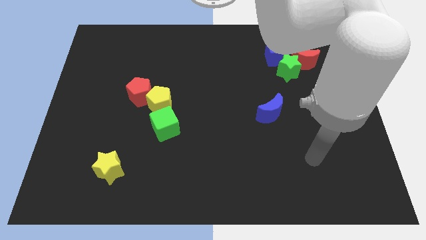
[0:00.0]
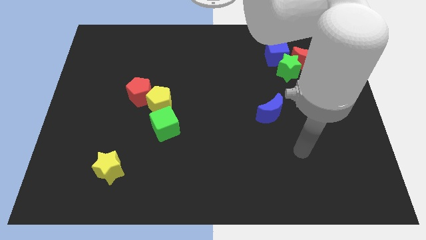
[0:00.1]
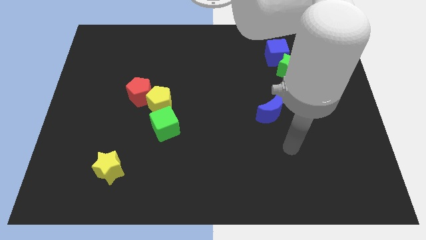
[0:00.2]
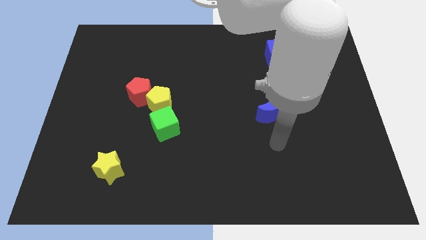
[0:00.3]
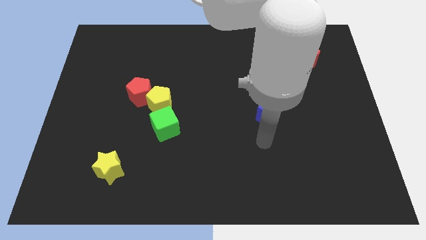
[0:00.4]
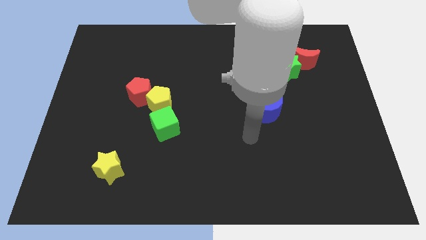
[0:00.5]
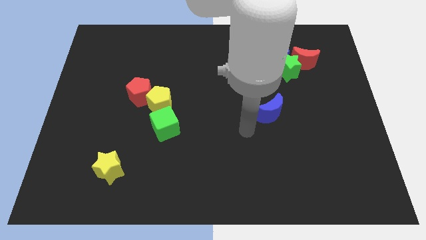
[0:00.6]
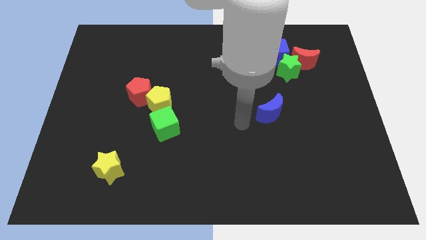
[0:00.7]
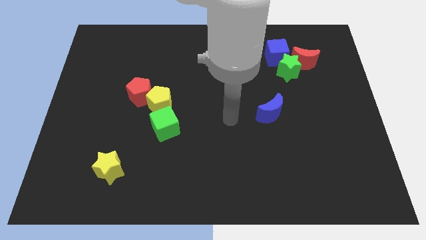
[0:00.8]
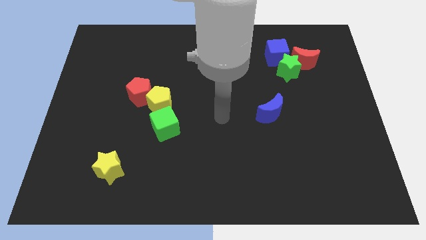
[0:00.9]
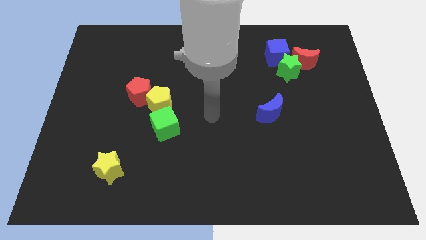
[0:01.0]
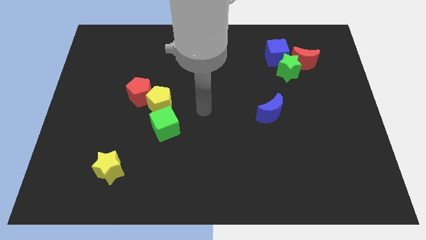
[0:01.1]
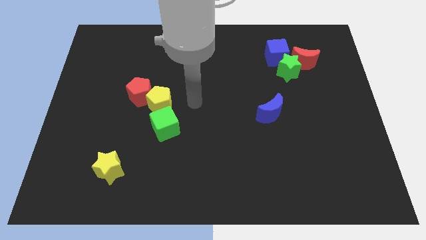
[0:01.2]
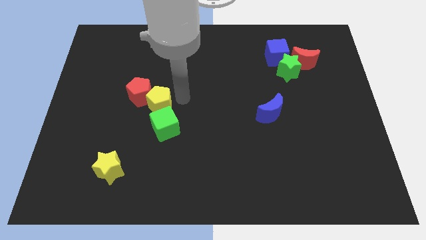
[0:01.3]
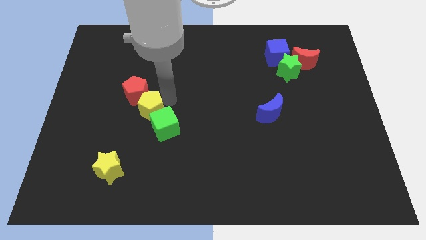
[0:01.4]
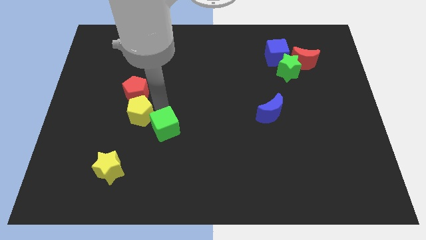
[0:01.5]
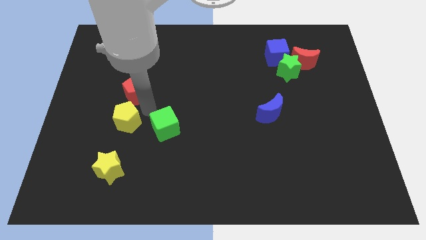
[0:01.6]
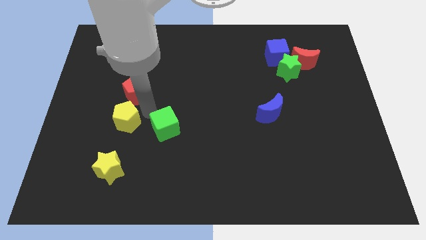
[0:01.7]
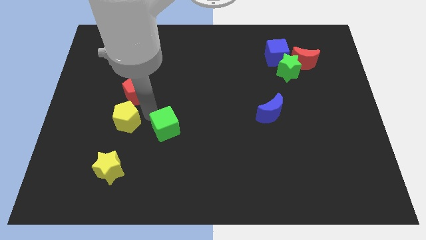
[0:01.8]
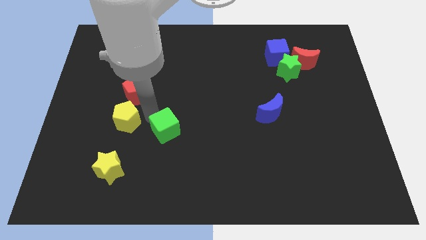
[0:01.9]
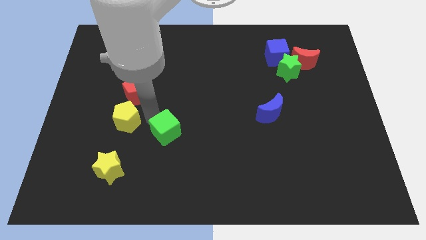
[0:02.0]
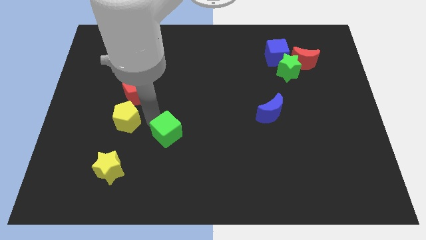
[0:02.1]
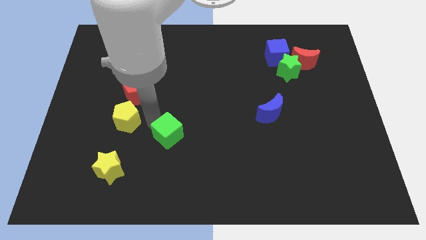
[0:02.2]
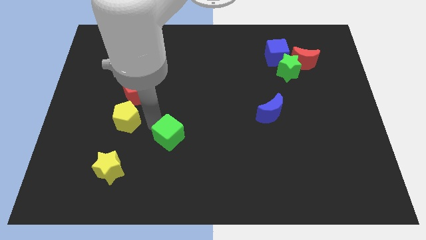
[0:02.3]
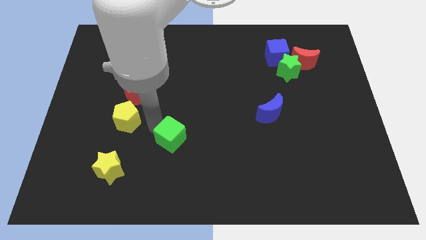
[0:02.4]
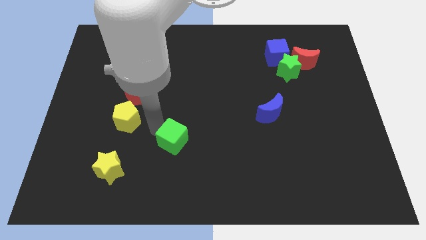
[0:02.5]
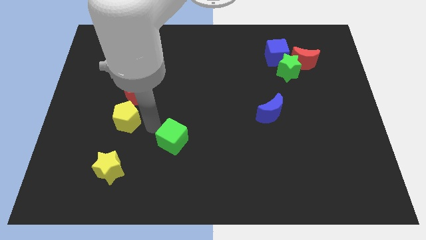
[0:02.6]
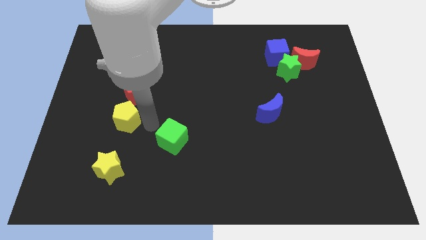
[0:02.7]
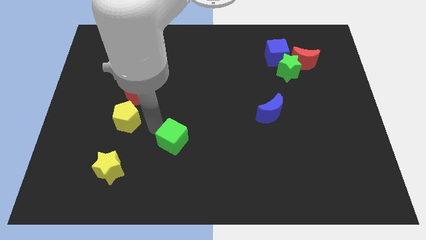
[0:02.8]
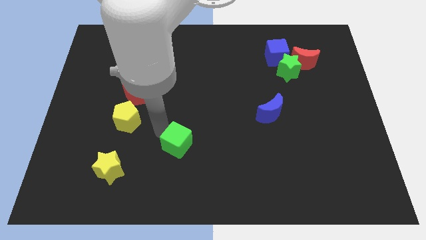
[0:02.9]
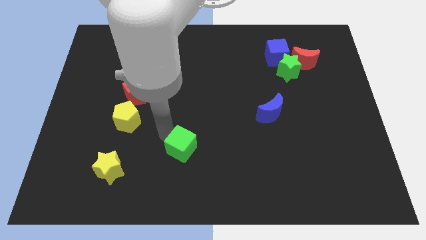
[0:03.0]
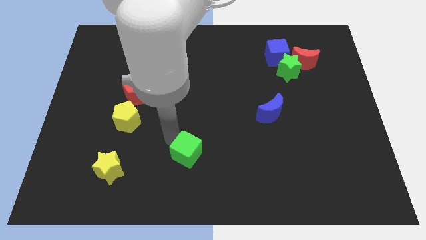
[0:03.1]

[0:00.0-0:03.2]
slide the green cube somewhat down and then to the right

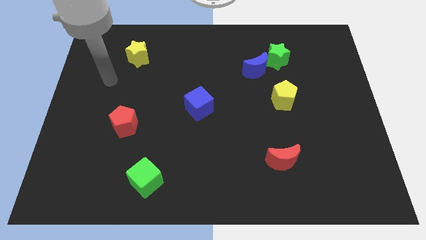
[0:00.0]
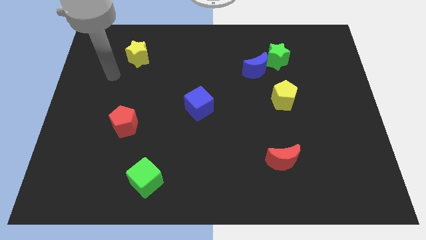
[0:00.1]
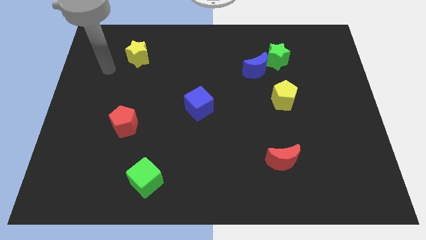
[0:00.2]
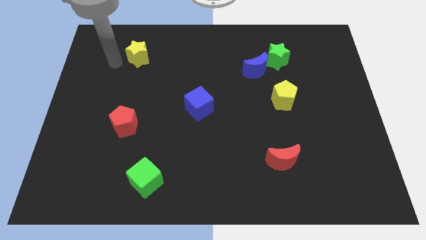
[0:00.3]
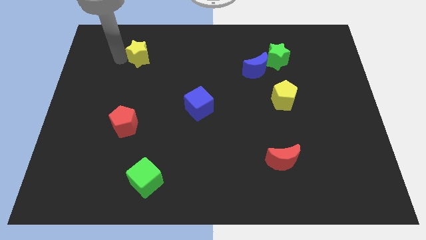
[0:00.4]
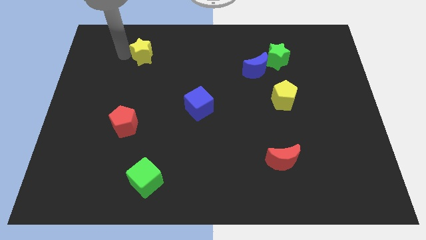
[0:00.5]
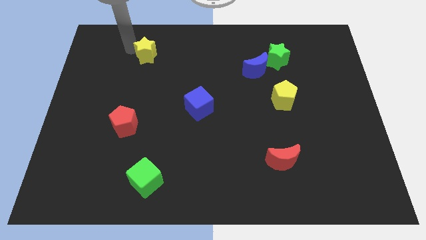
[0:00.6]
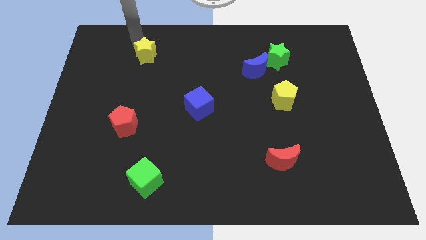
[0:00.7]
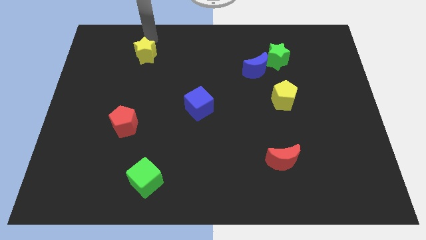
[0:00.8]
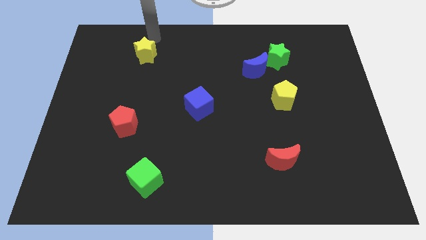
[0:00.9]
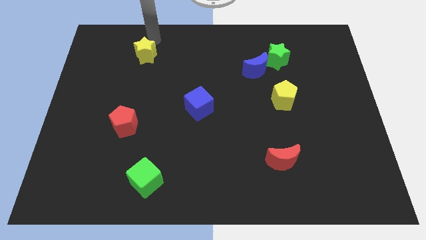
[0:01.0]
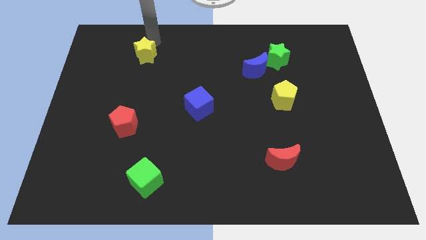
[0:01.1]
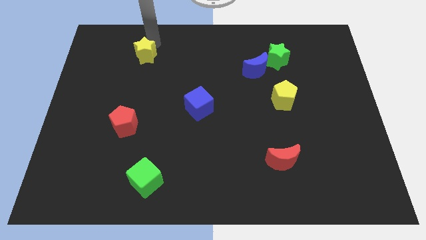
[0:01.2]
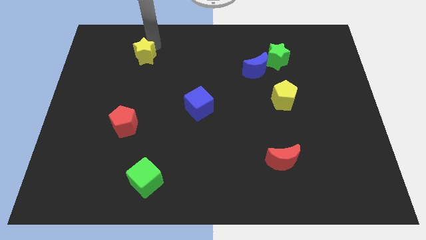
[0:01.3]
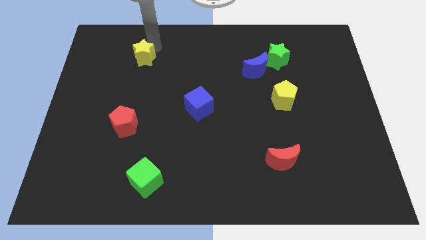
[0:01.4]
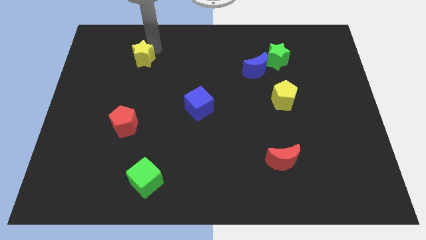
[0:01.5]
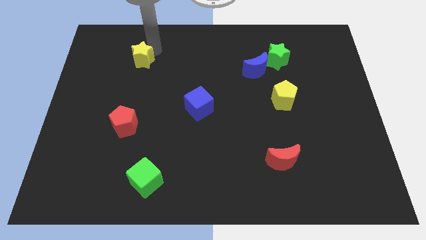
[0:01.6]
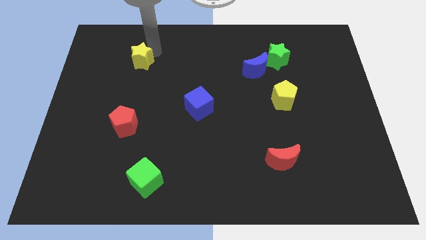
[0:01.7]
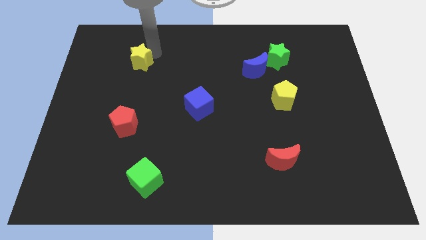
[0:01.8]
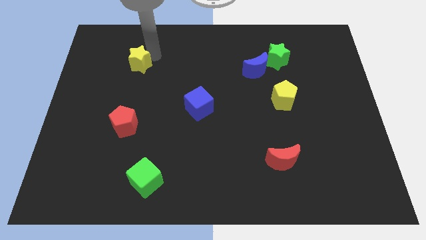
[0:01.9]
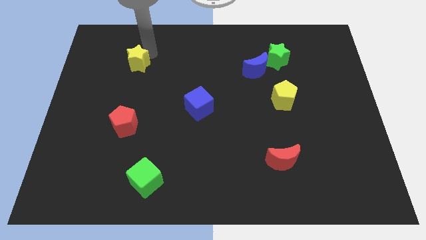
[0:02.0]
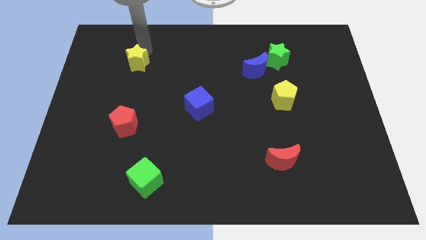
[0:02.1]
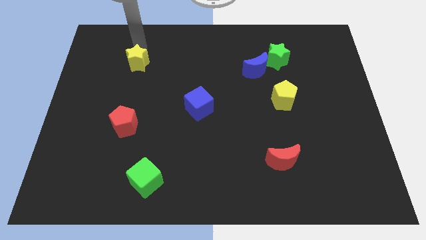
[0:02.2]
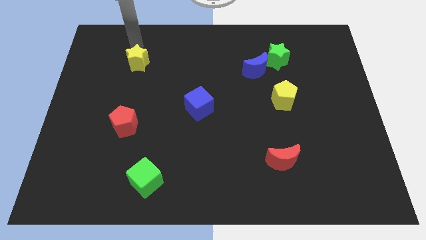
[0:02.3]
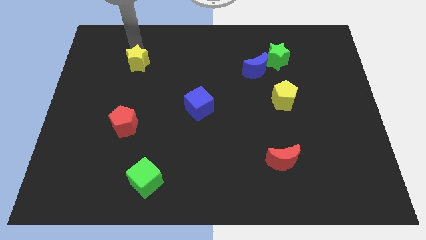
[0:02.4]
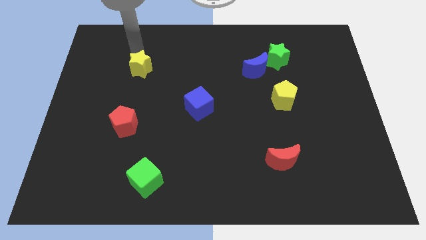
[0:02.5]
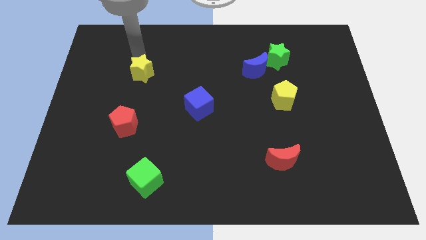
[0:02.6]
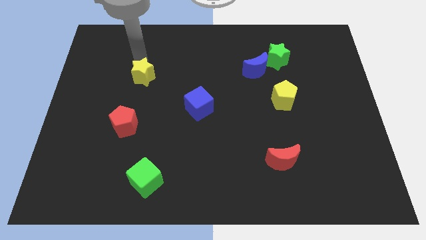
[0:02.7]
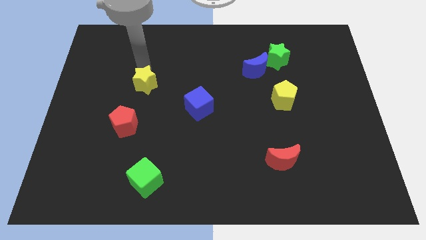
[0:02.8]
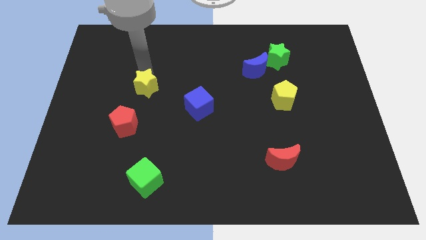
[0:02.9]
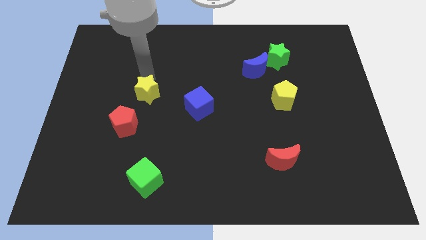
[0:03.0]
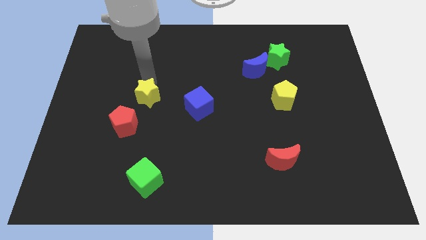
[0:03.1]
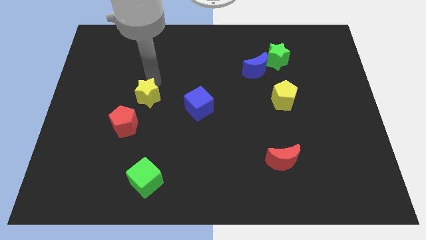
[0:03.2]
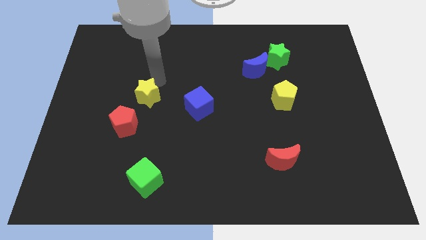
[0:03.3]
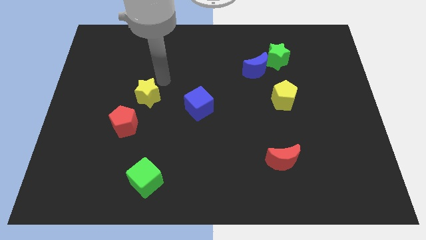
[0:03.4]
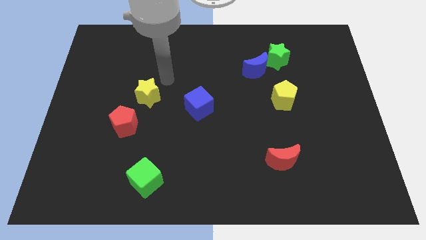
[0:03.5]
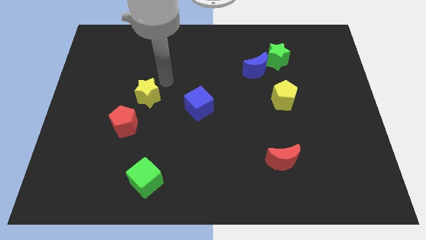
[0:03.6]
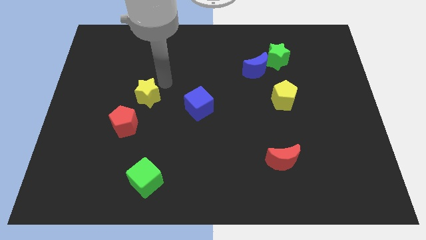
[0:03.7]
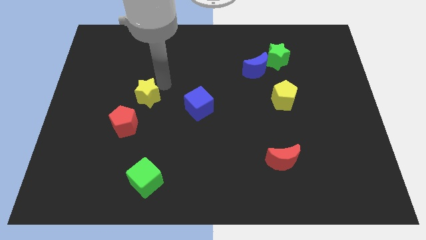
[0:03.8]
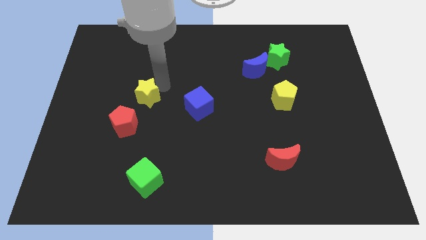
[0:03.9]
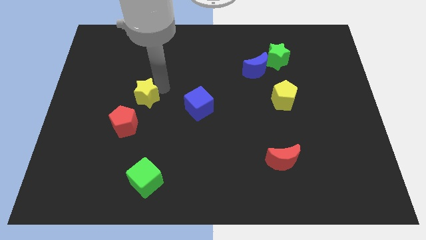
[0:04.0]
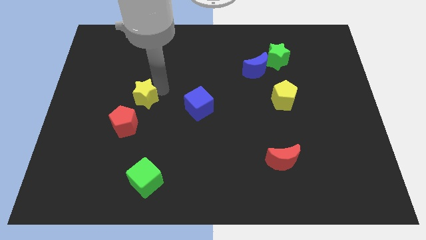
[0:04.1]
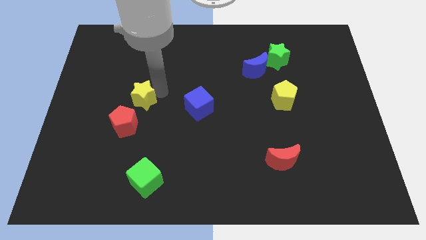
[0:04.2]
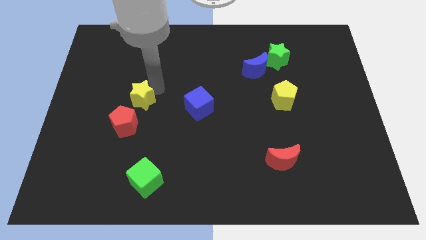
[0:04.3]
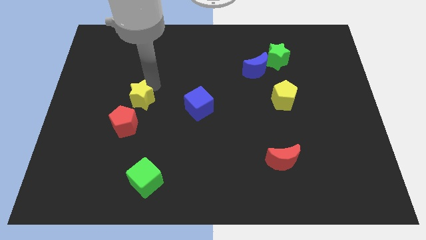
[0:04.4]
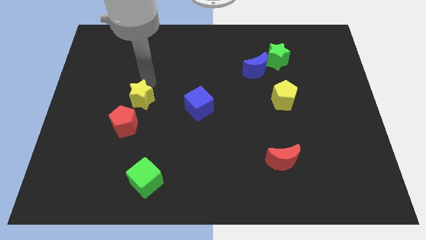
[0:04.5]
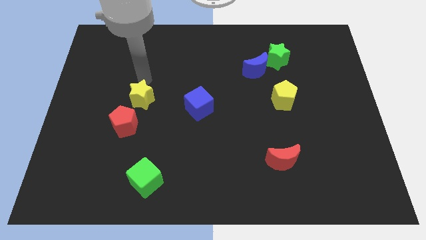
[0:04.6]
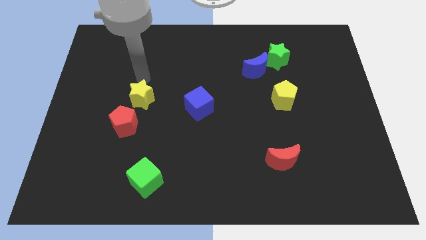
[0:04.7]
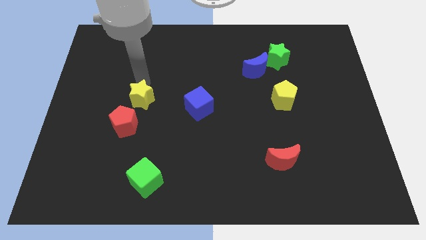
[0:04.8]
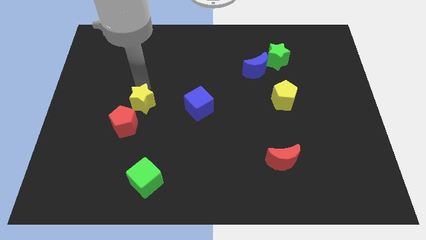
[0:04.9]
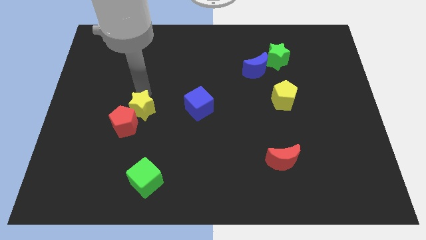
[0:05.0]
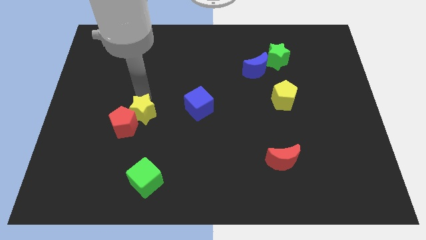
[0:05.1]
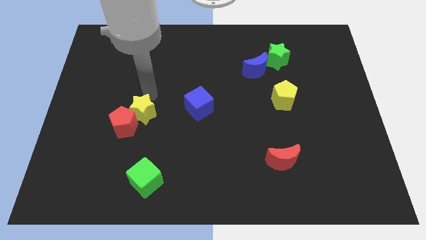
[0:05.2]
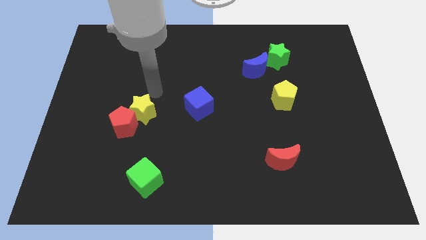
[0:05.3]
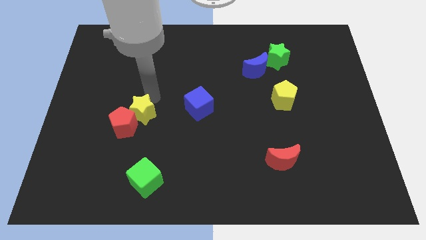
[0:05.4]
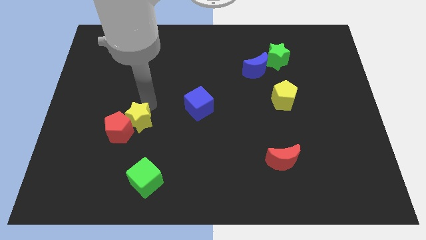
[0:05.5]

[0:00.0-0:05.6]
move the yellow star down
